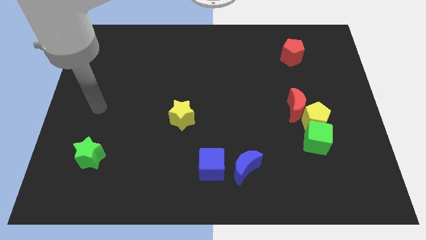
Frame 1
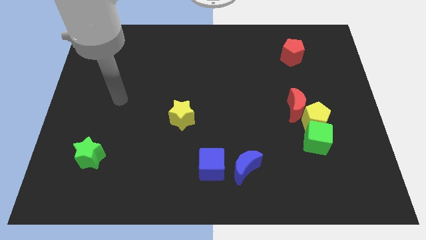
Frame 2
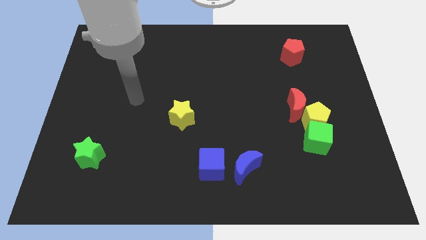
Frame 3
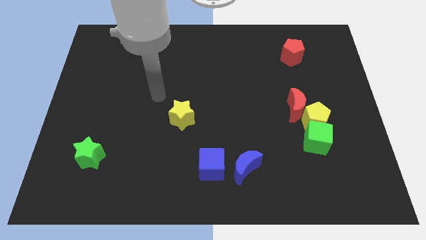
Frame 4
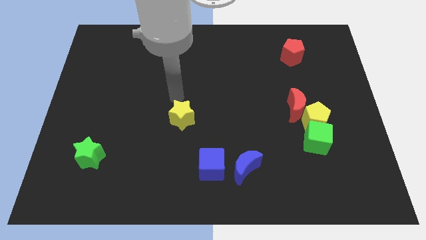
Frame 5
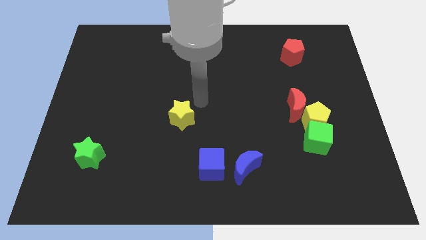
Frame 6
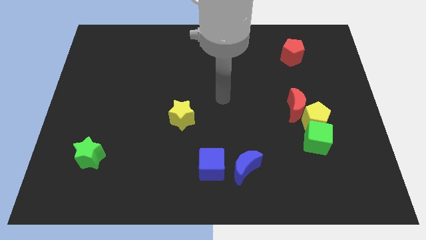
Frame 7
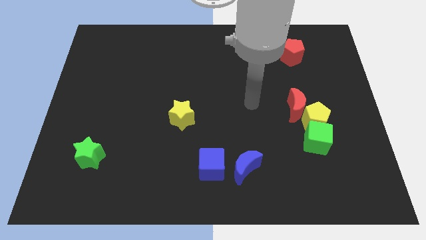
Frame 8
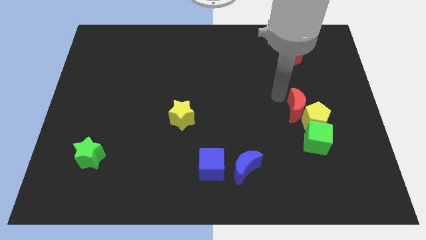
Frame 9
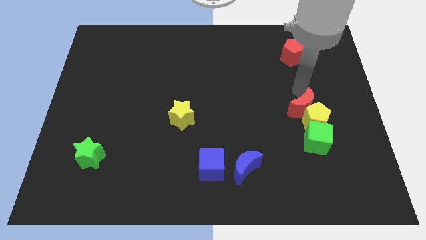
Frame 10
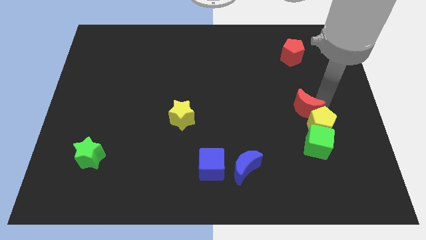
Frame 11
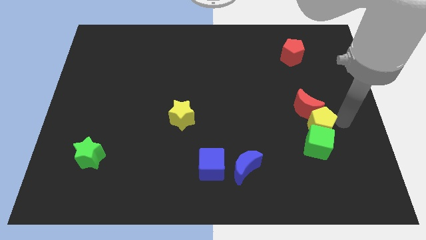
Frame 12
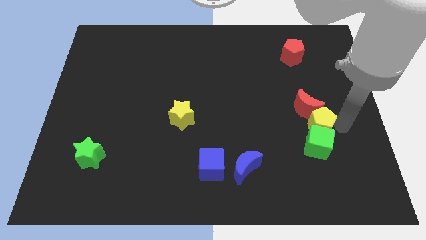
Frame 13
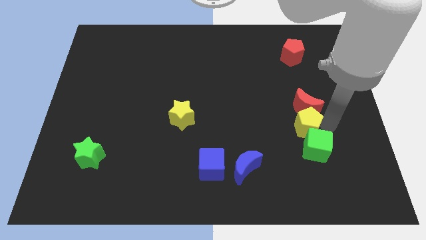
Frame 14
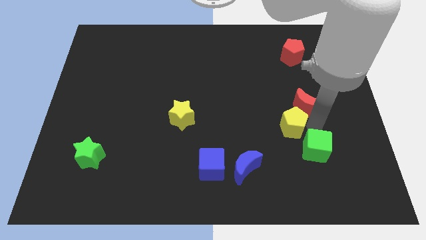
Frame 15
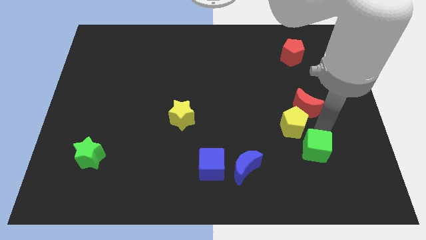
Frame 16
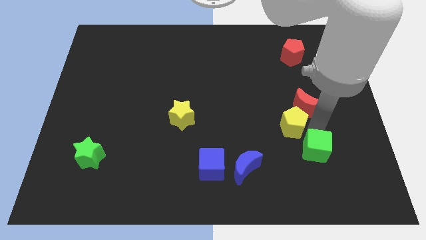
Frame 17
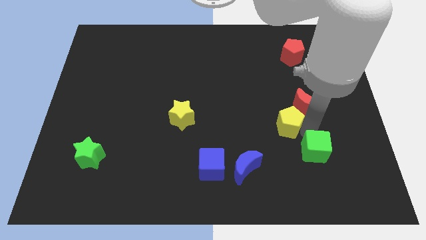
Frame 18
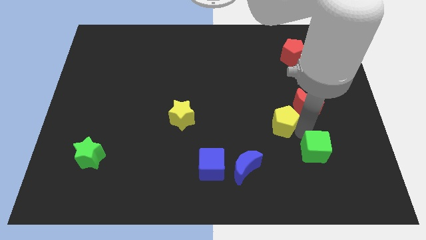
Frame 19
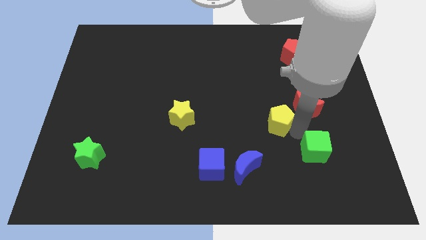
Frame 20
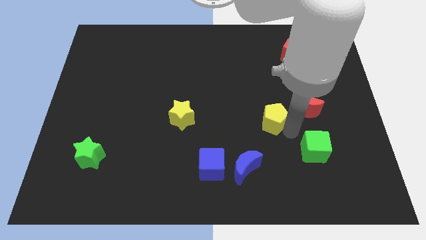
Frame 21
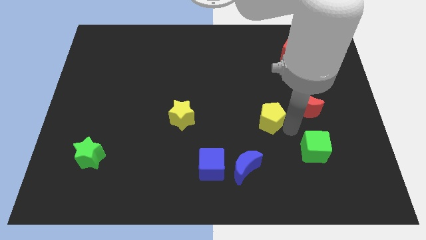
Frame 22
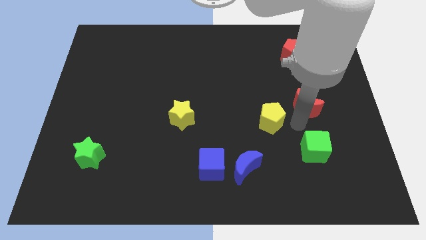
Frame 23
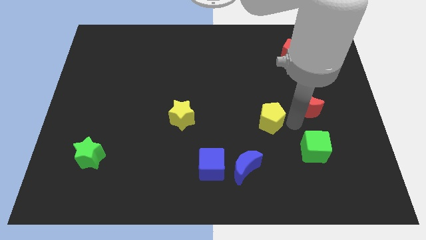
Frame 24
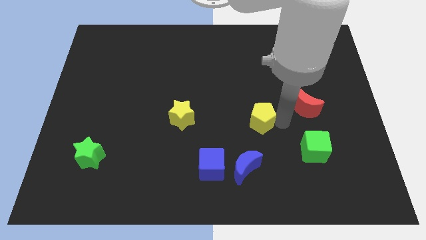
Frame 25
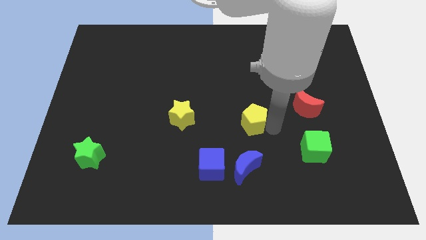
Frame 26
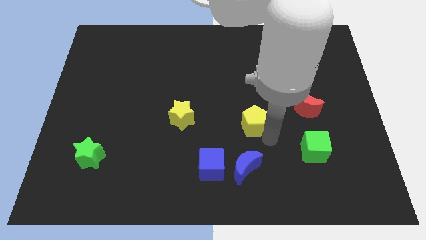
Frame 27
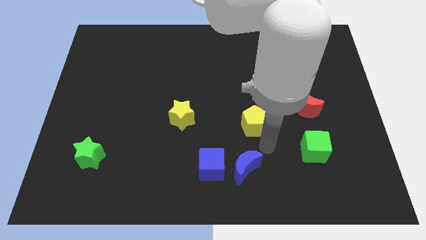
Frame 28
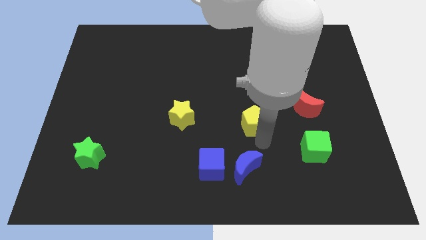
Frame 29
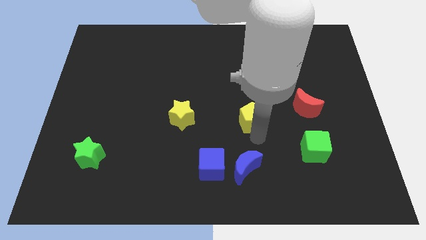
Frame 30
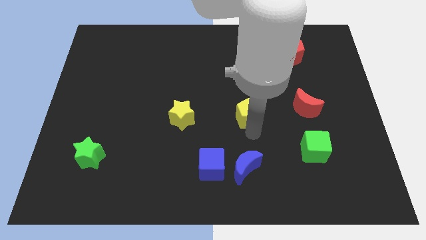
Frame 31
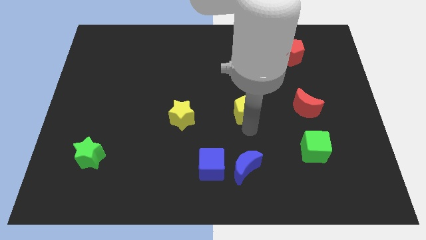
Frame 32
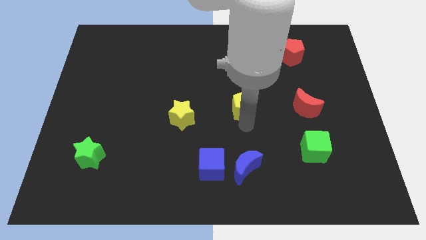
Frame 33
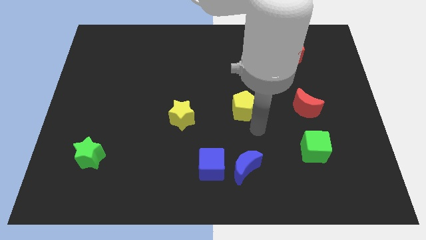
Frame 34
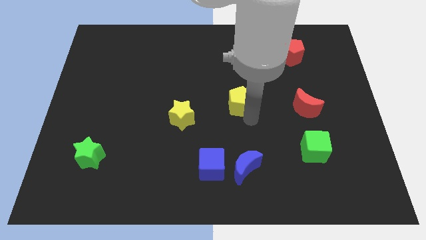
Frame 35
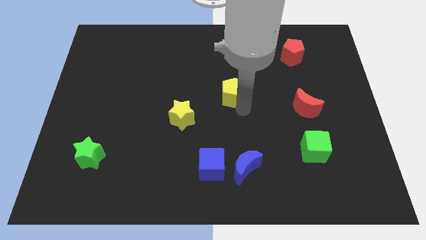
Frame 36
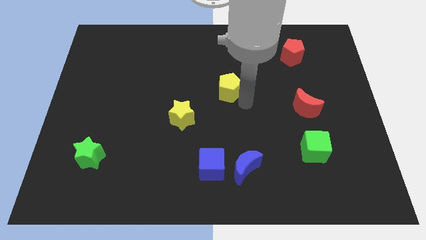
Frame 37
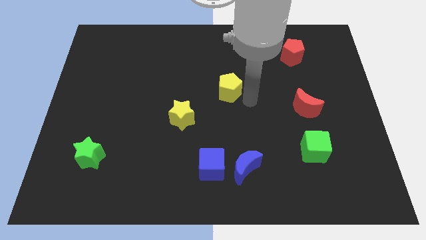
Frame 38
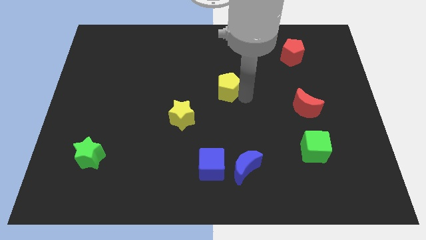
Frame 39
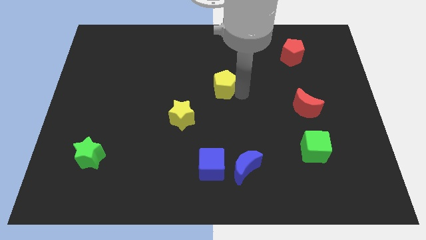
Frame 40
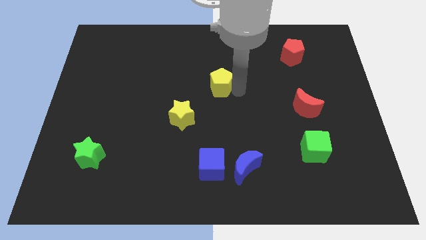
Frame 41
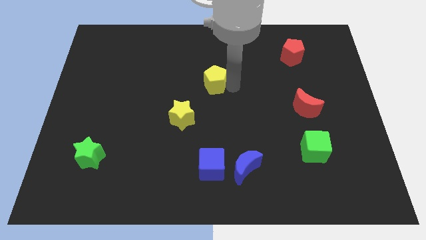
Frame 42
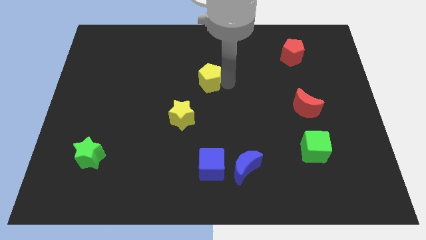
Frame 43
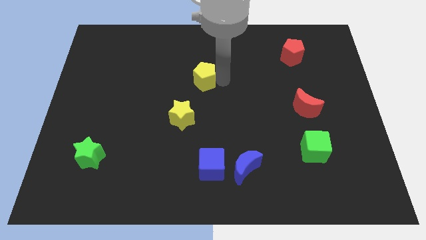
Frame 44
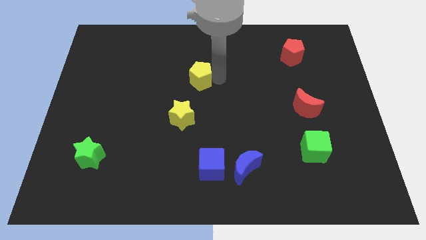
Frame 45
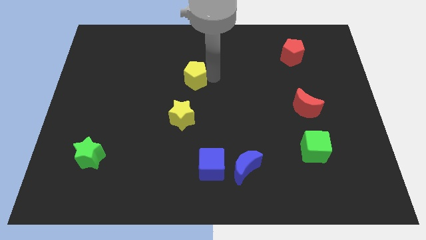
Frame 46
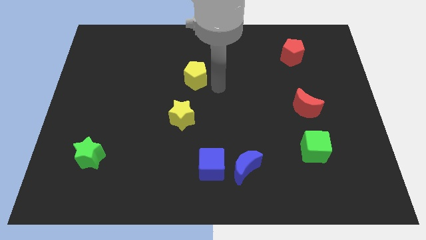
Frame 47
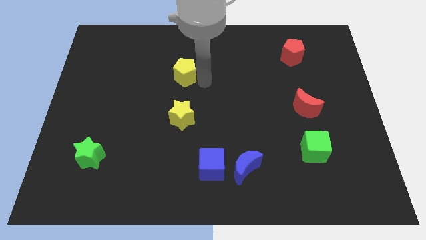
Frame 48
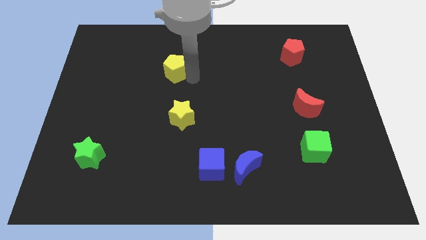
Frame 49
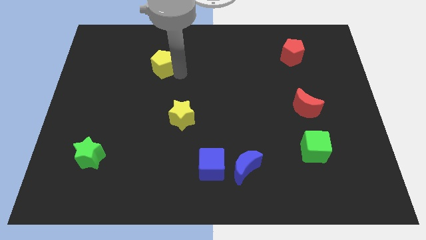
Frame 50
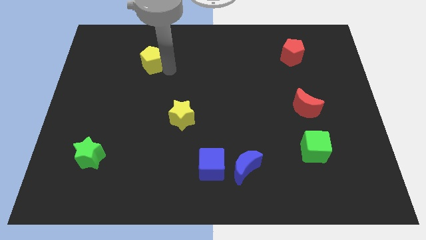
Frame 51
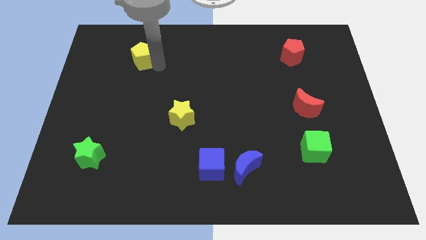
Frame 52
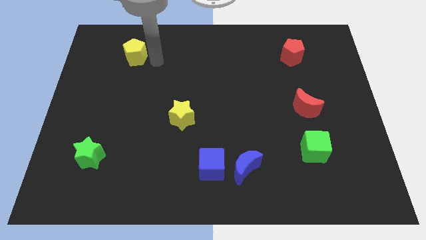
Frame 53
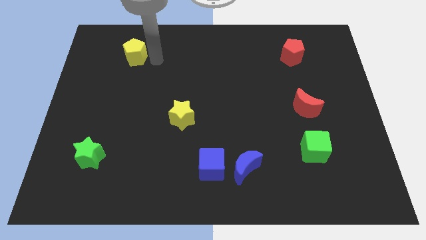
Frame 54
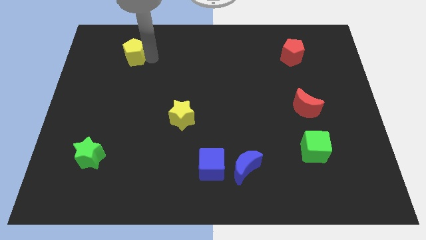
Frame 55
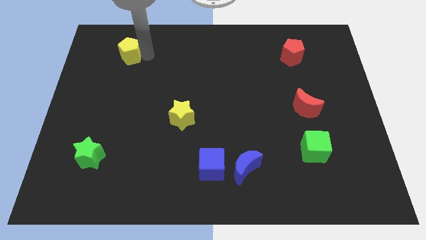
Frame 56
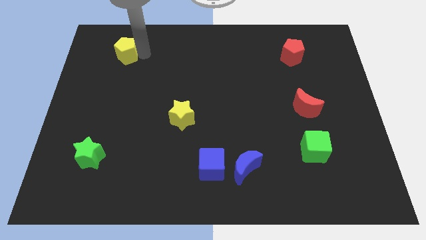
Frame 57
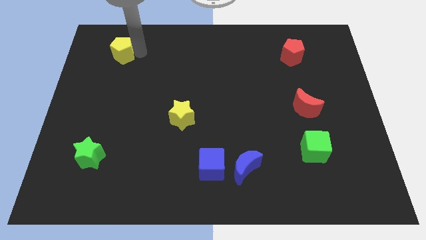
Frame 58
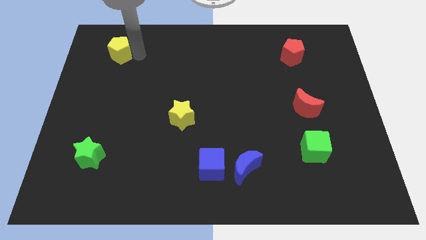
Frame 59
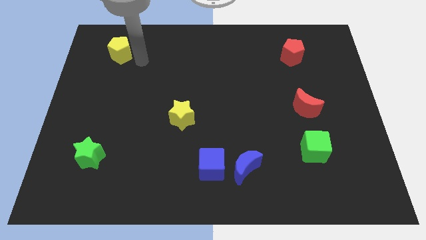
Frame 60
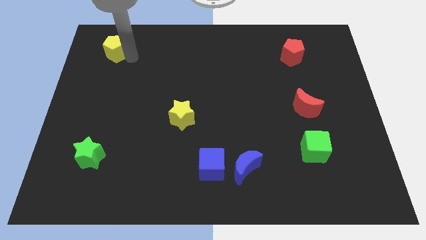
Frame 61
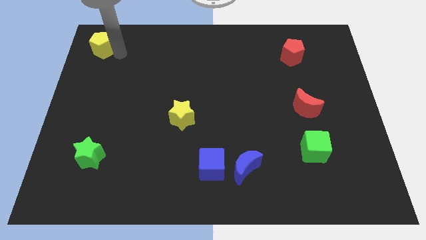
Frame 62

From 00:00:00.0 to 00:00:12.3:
slide the yellow pentagon to the top left of the board

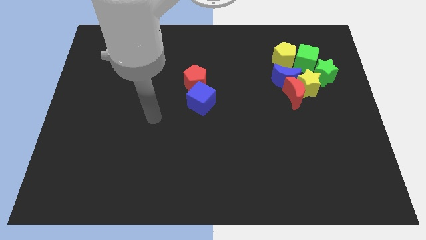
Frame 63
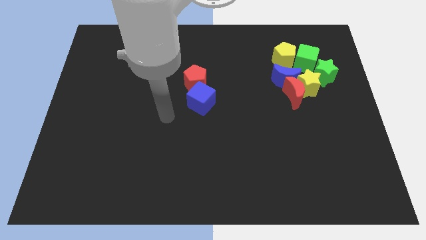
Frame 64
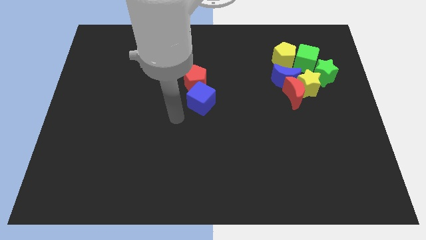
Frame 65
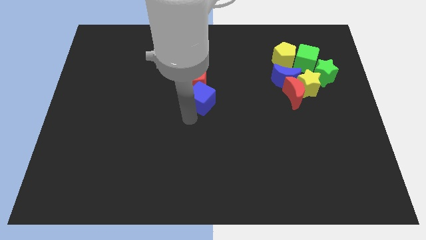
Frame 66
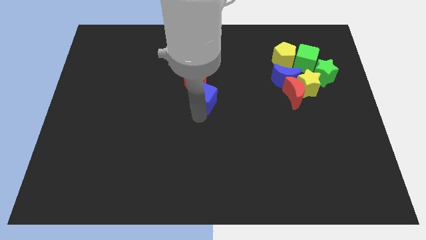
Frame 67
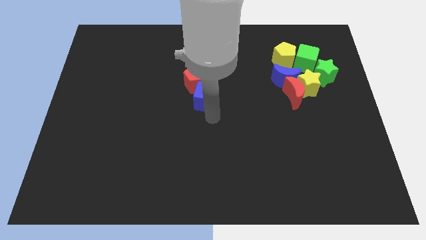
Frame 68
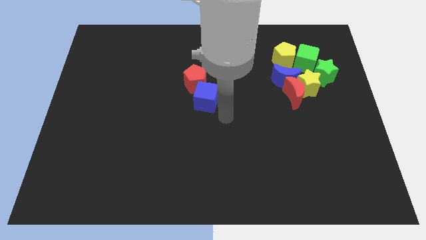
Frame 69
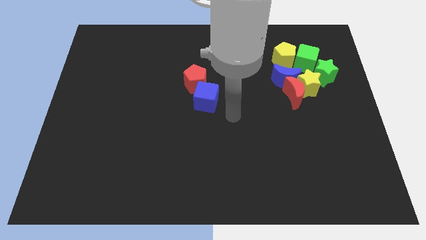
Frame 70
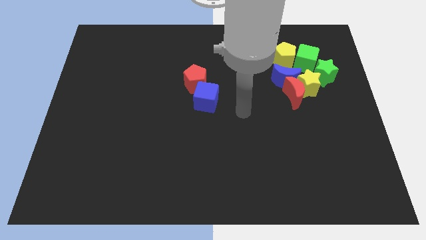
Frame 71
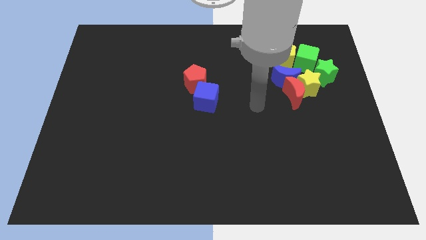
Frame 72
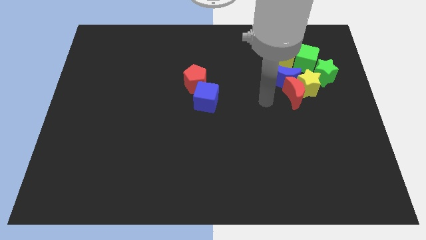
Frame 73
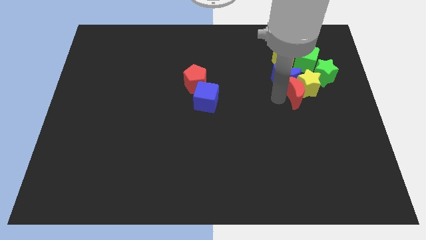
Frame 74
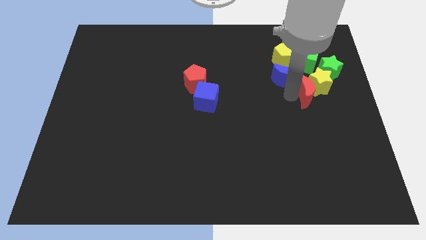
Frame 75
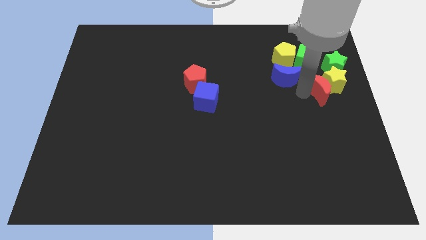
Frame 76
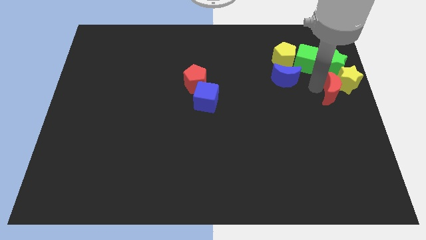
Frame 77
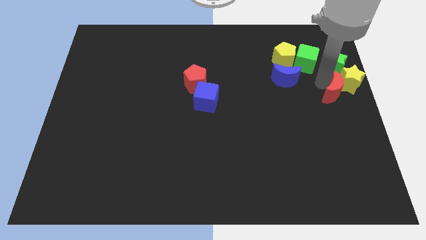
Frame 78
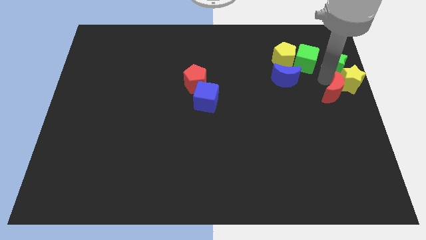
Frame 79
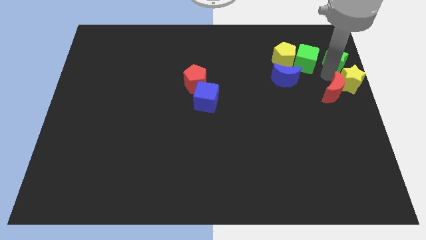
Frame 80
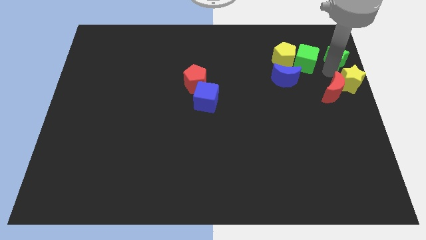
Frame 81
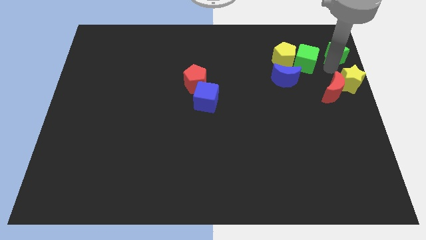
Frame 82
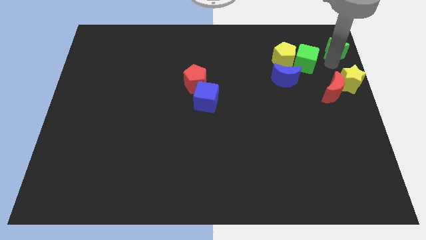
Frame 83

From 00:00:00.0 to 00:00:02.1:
move the green star to the top right corner
